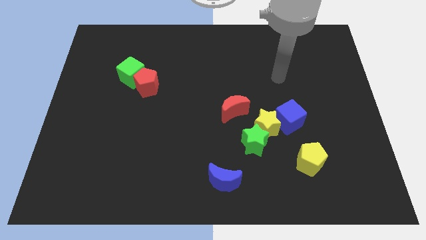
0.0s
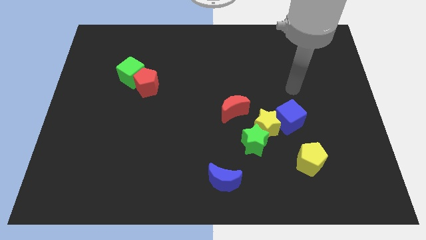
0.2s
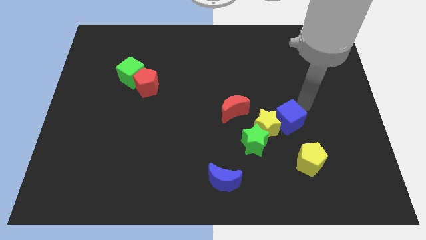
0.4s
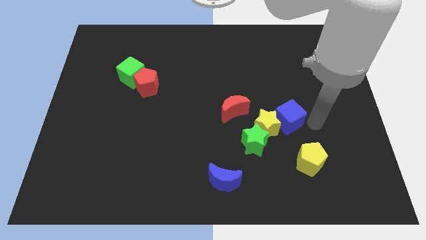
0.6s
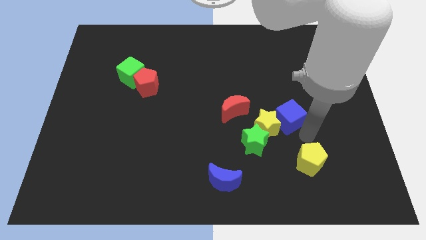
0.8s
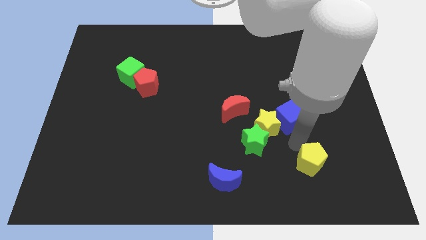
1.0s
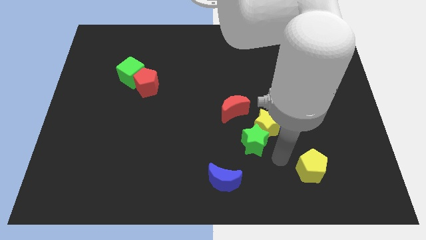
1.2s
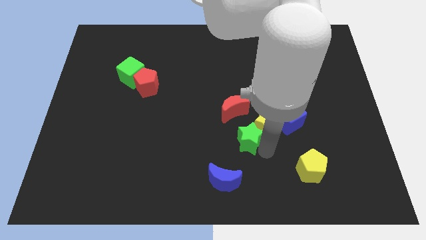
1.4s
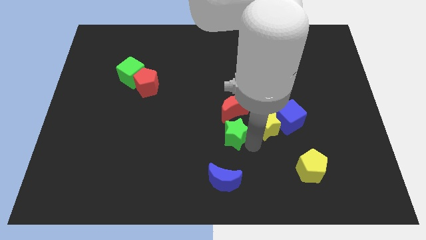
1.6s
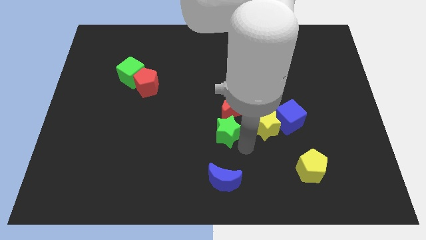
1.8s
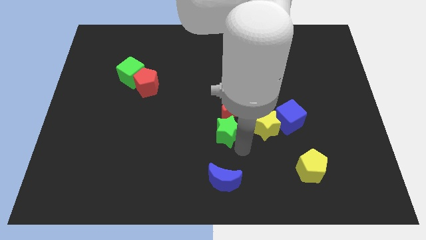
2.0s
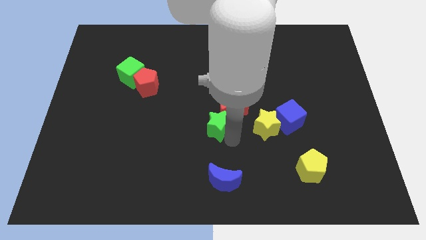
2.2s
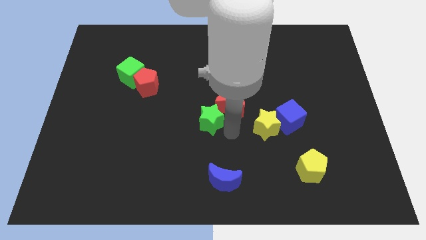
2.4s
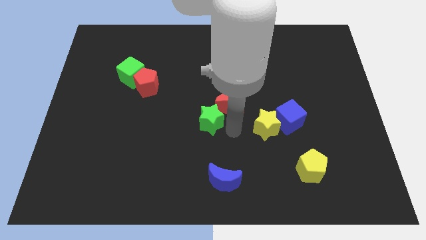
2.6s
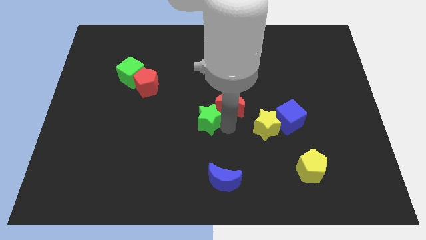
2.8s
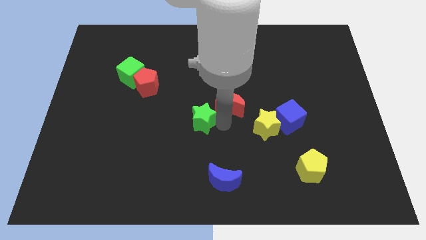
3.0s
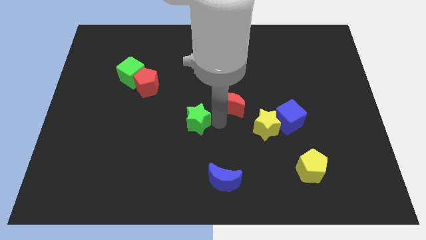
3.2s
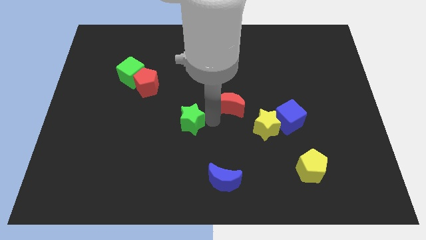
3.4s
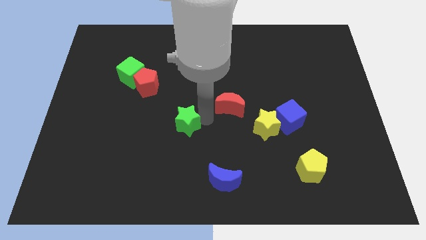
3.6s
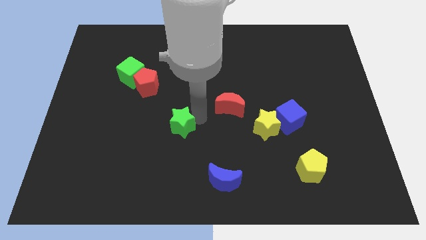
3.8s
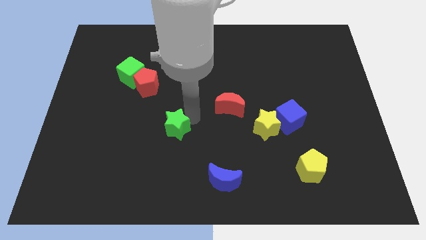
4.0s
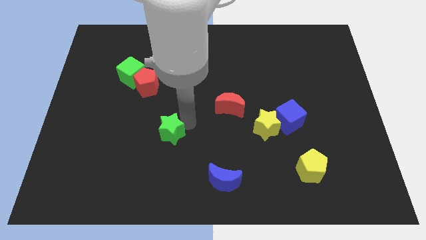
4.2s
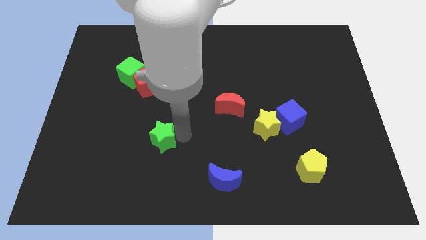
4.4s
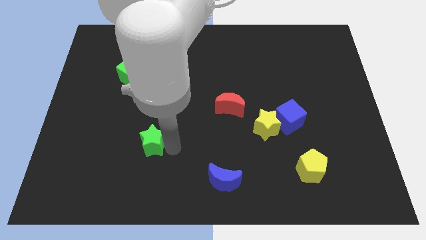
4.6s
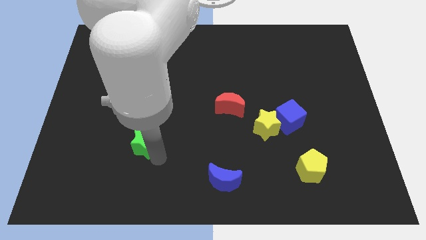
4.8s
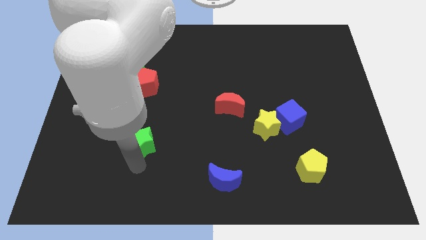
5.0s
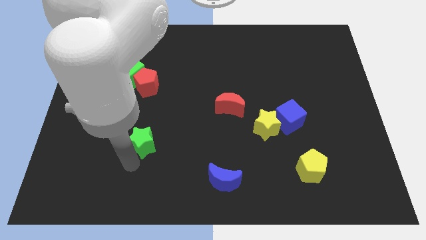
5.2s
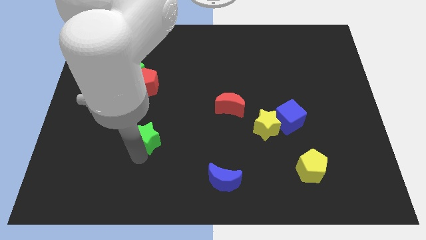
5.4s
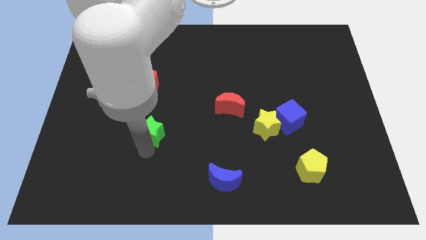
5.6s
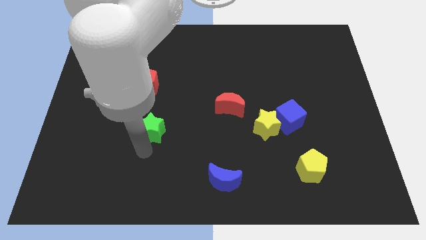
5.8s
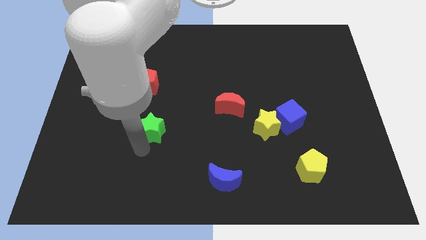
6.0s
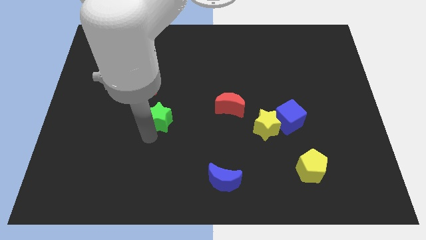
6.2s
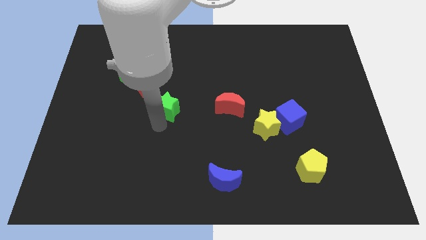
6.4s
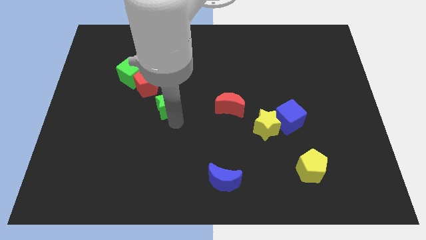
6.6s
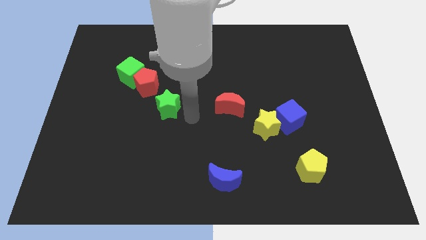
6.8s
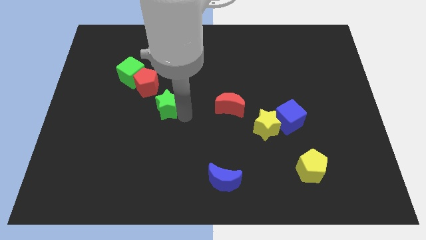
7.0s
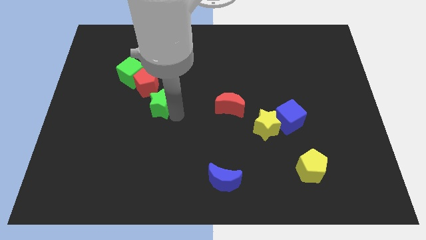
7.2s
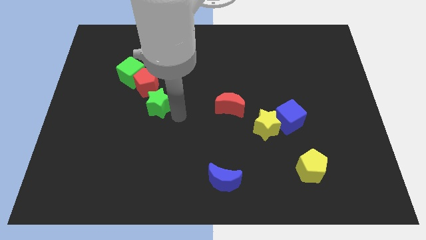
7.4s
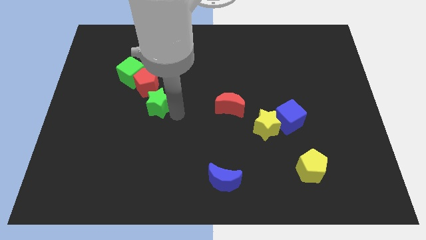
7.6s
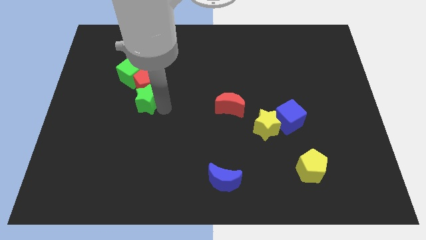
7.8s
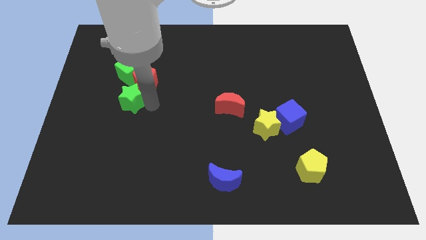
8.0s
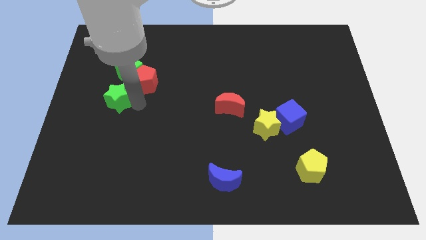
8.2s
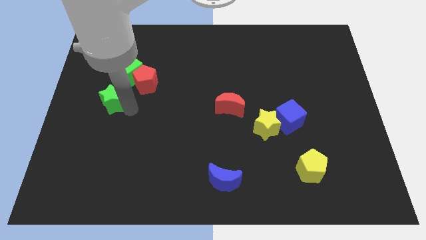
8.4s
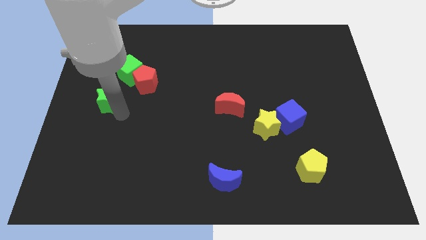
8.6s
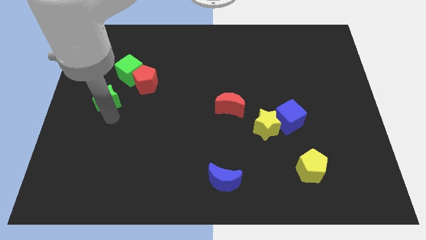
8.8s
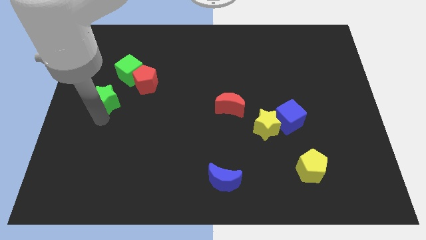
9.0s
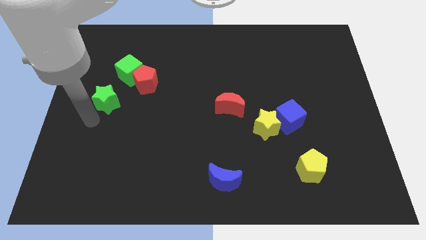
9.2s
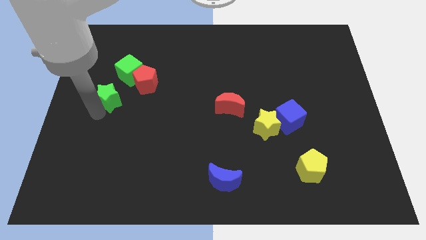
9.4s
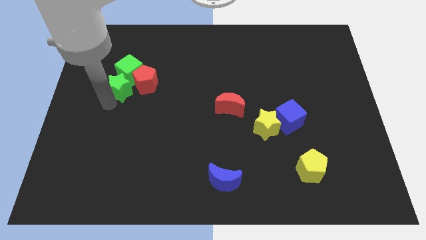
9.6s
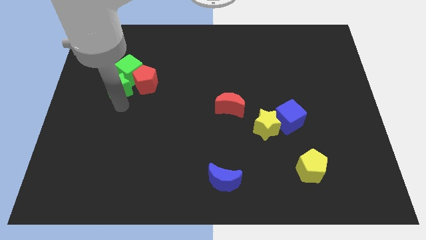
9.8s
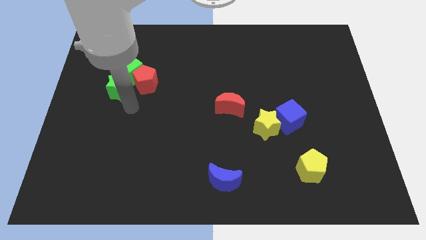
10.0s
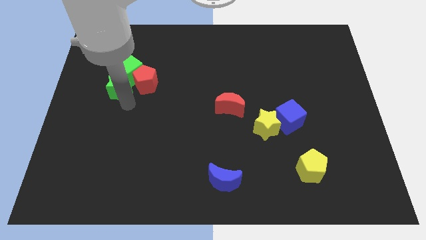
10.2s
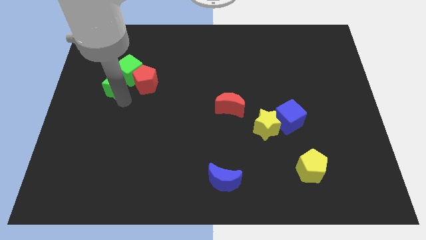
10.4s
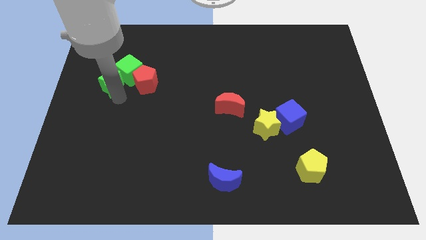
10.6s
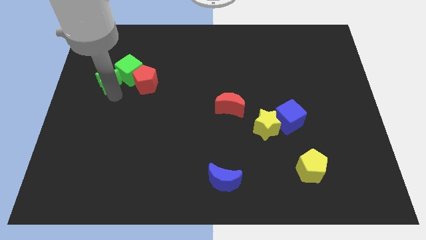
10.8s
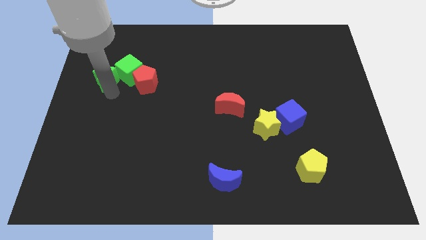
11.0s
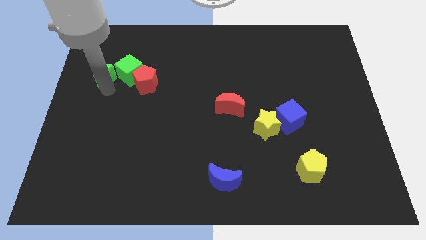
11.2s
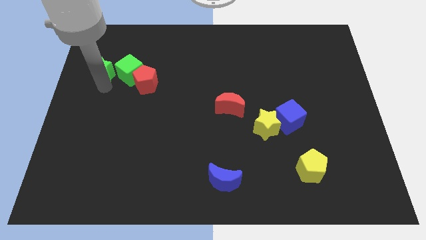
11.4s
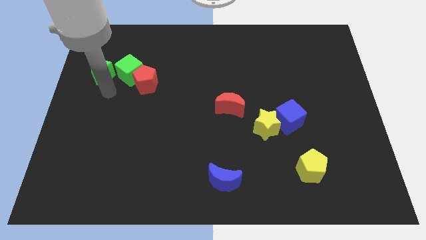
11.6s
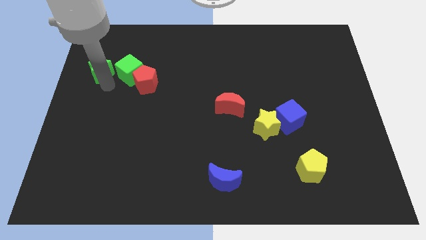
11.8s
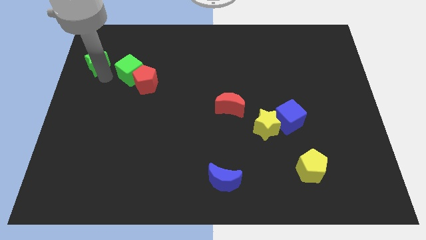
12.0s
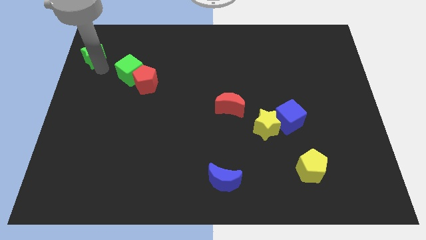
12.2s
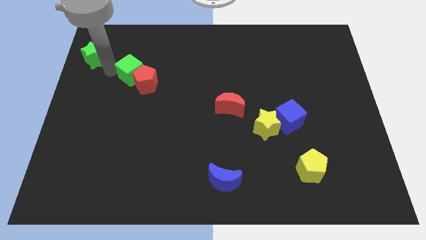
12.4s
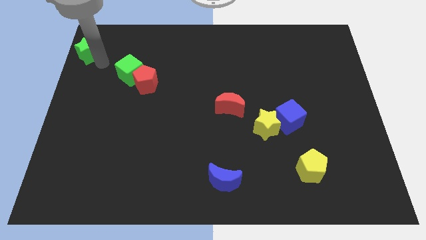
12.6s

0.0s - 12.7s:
slide the green star to the top left of the board
